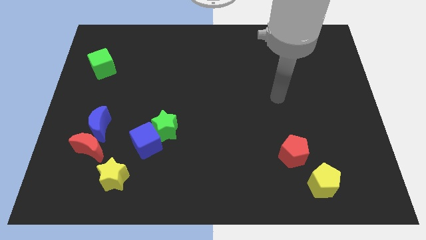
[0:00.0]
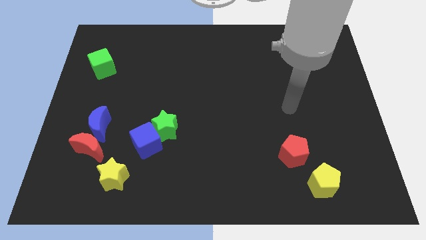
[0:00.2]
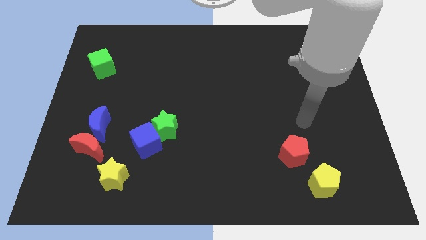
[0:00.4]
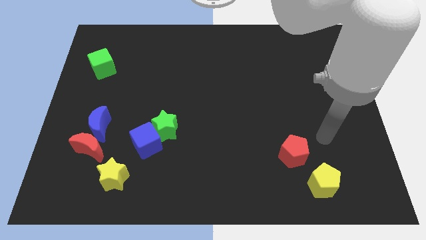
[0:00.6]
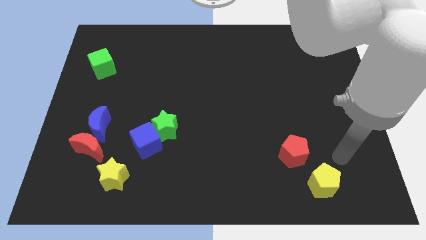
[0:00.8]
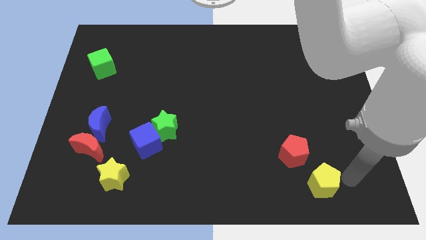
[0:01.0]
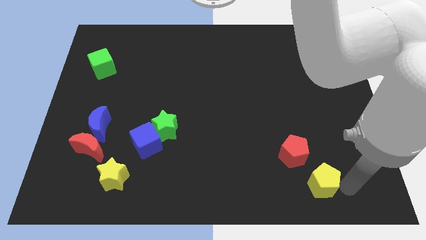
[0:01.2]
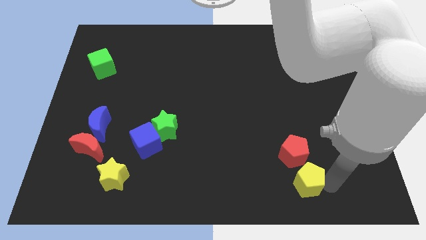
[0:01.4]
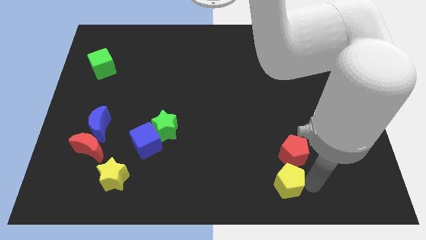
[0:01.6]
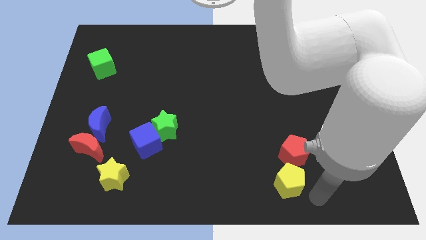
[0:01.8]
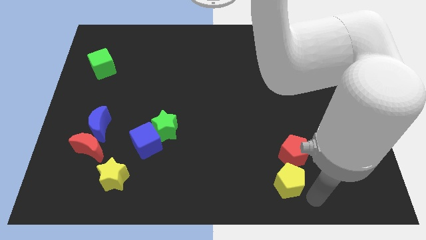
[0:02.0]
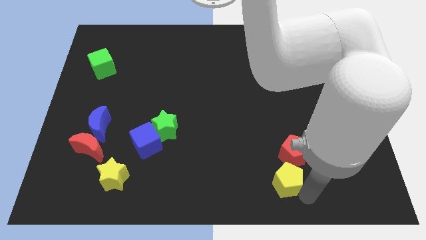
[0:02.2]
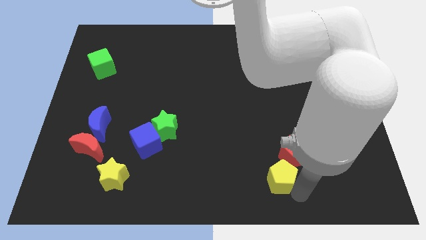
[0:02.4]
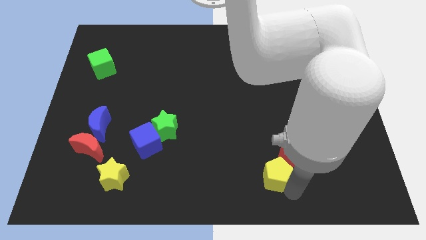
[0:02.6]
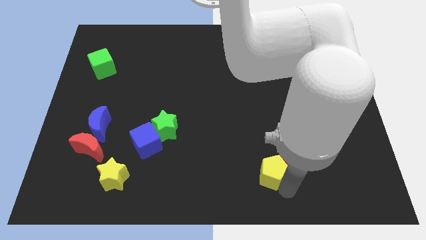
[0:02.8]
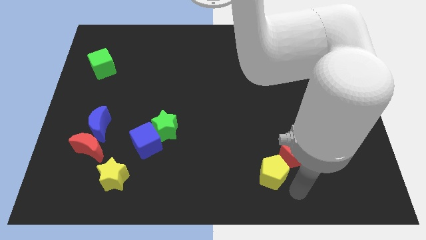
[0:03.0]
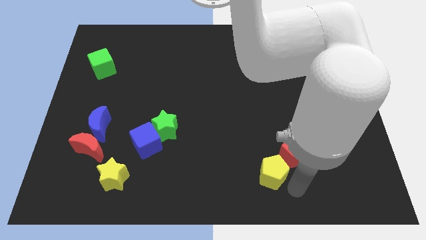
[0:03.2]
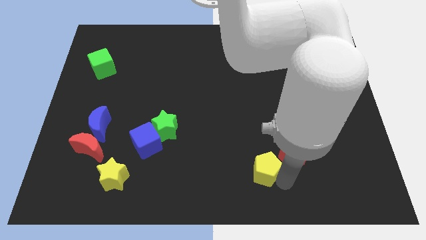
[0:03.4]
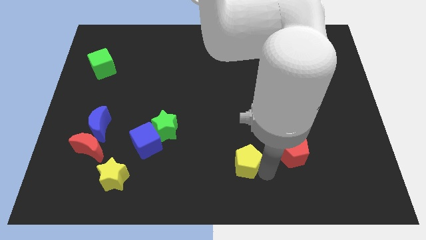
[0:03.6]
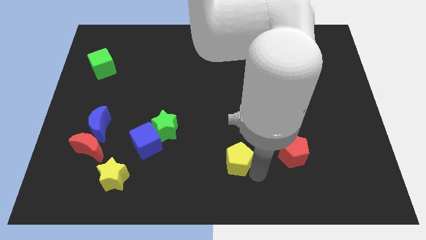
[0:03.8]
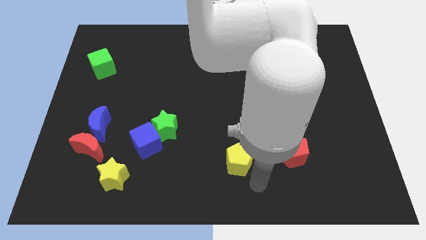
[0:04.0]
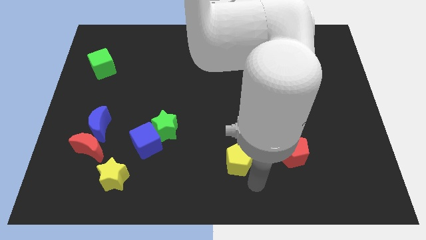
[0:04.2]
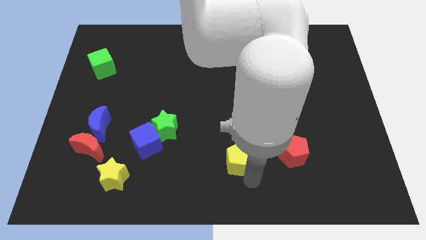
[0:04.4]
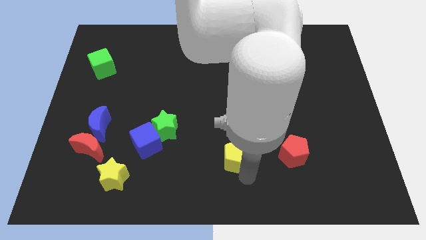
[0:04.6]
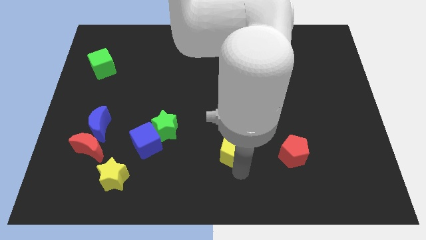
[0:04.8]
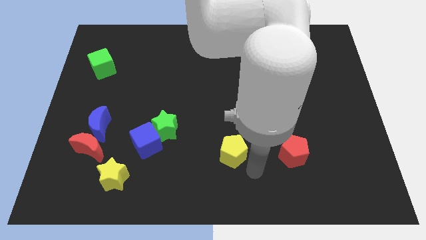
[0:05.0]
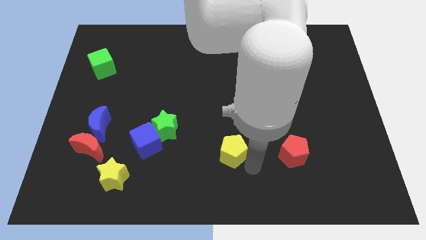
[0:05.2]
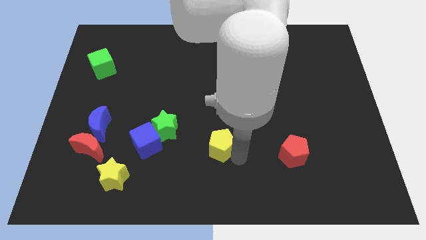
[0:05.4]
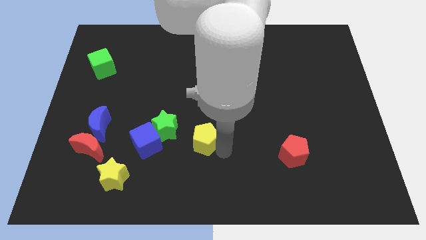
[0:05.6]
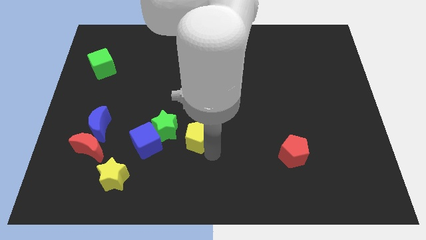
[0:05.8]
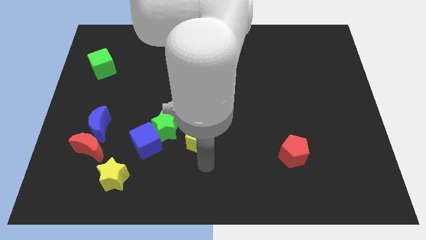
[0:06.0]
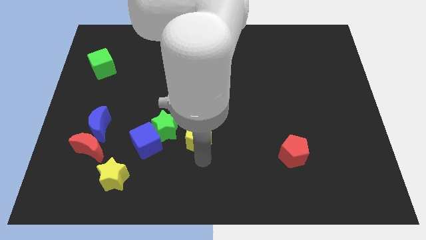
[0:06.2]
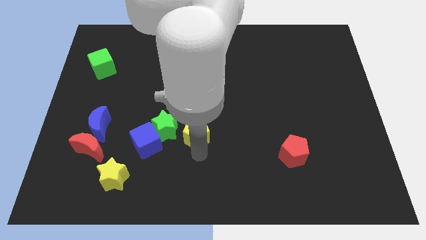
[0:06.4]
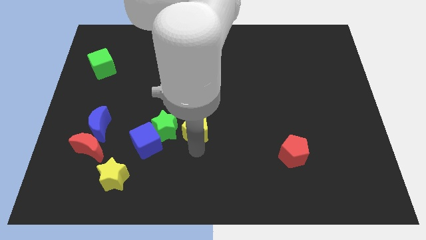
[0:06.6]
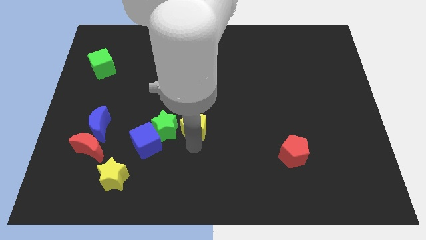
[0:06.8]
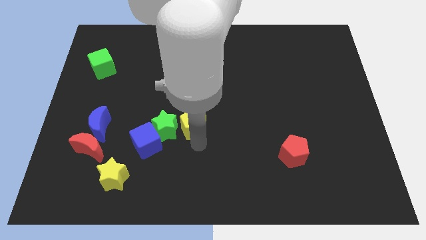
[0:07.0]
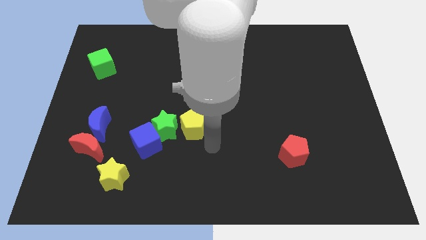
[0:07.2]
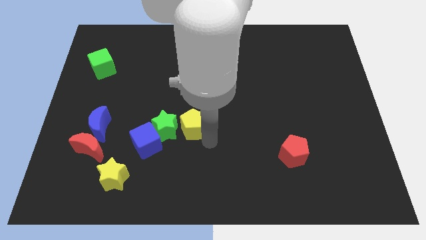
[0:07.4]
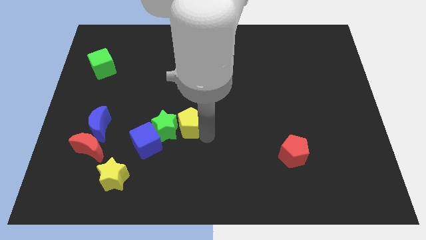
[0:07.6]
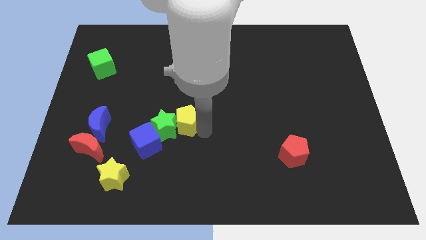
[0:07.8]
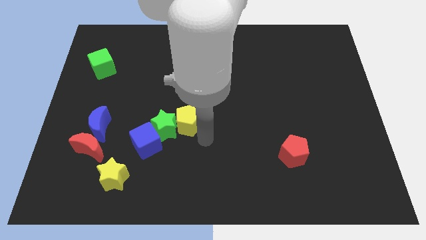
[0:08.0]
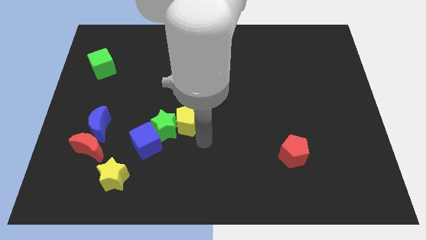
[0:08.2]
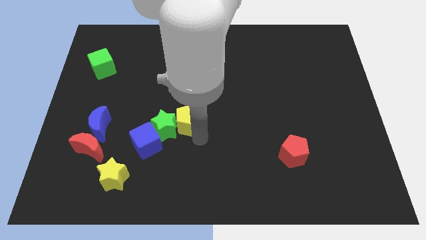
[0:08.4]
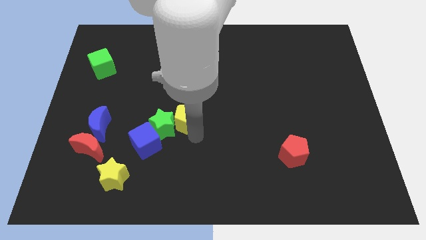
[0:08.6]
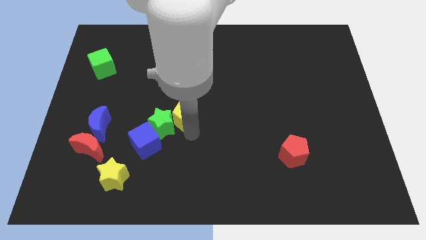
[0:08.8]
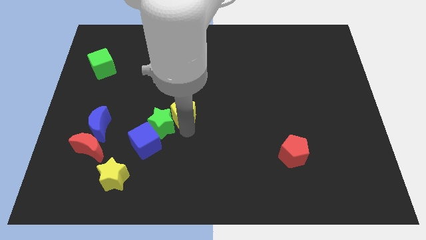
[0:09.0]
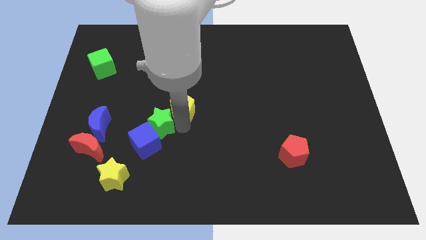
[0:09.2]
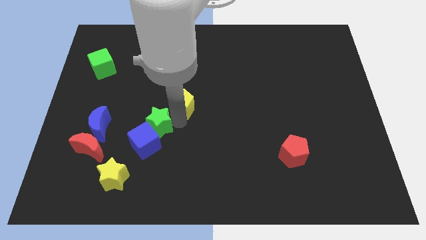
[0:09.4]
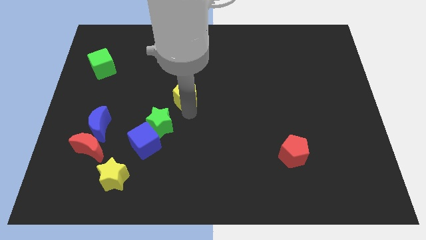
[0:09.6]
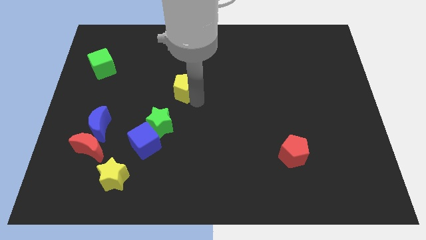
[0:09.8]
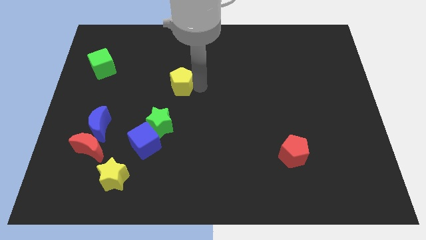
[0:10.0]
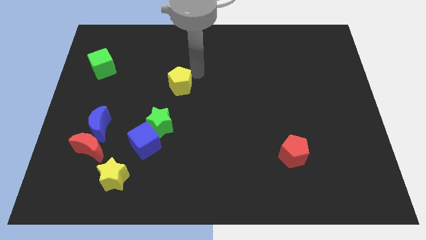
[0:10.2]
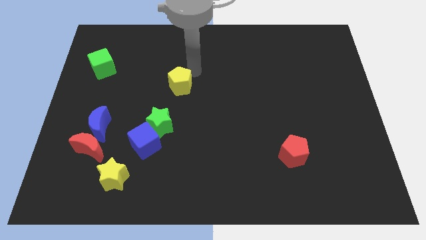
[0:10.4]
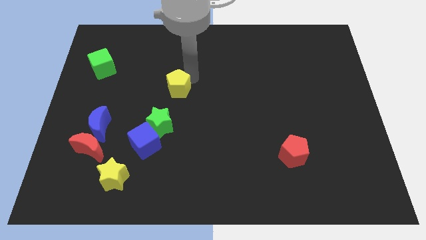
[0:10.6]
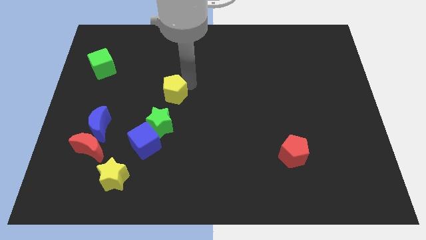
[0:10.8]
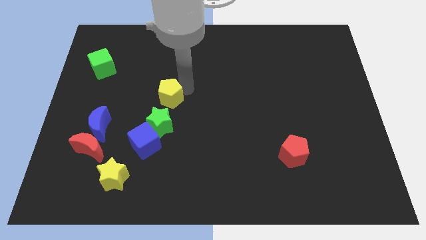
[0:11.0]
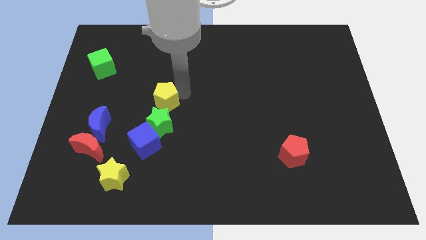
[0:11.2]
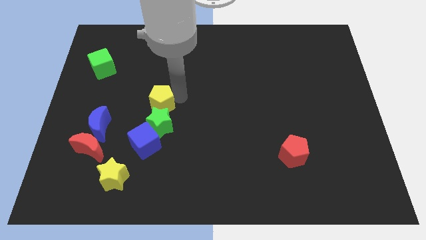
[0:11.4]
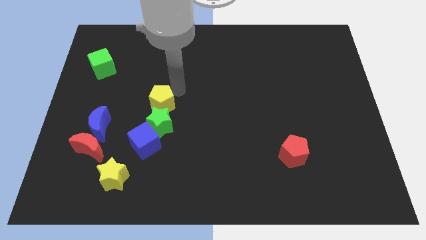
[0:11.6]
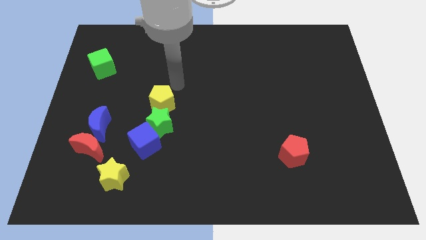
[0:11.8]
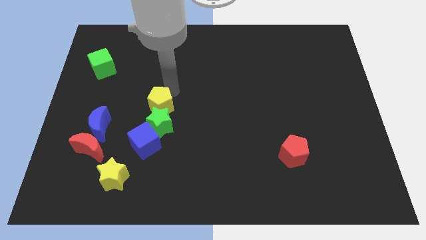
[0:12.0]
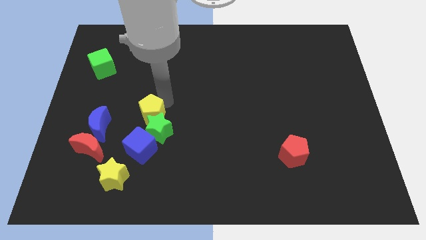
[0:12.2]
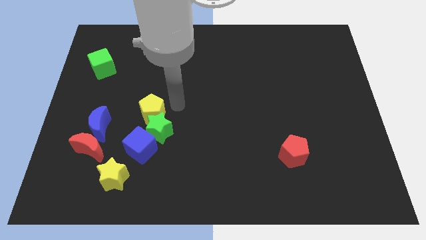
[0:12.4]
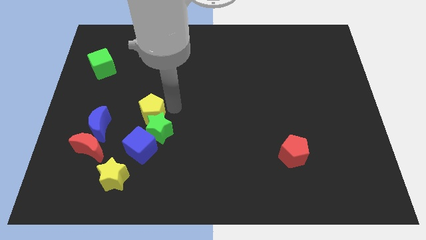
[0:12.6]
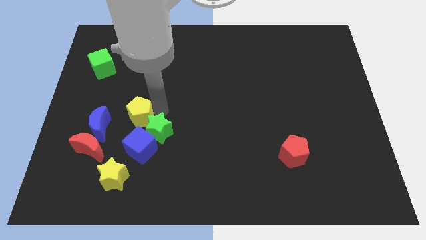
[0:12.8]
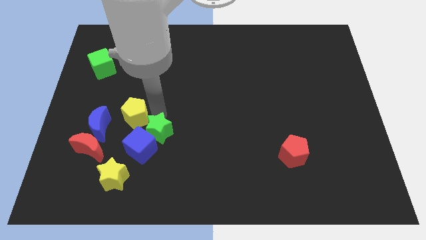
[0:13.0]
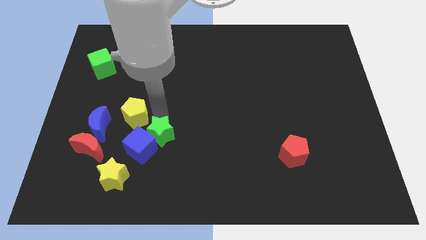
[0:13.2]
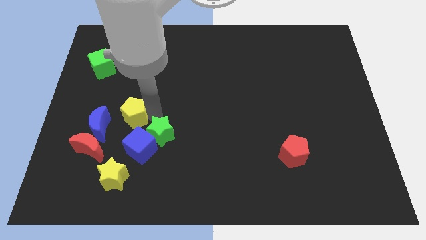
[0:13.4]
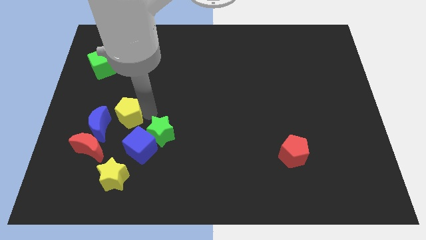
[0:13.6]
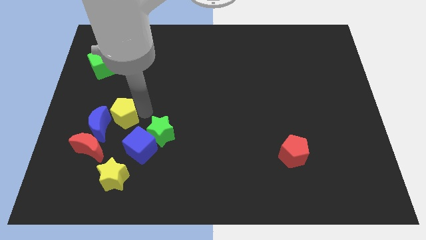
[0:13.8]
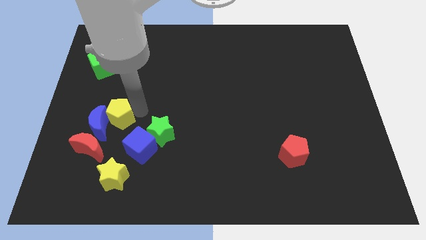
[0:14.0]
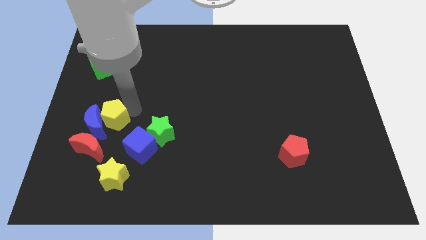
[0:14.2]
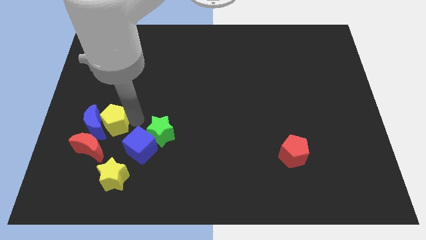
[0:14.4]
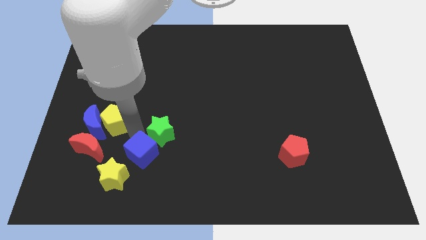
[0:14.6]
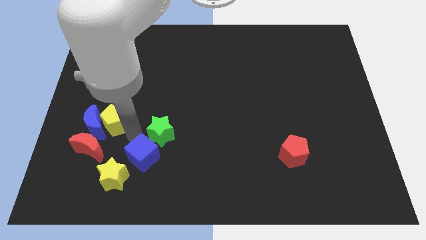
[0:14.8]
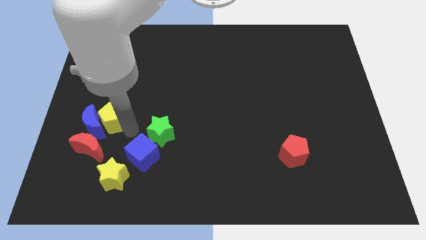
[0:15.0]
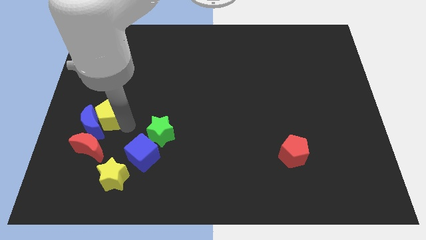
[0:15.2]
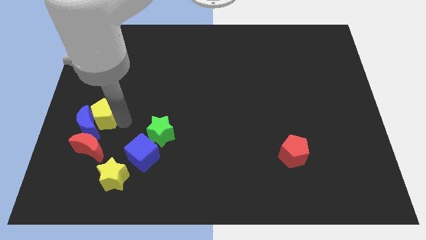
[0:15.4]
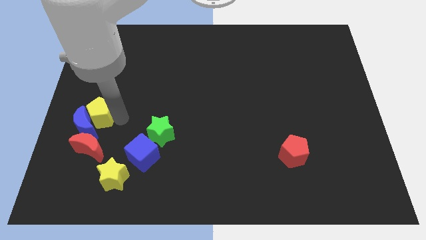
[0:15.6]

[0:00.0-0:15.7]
put the yellow pentagon to the left side
